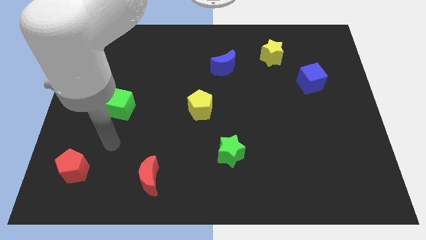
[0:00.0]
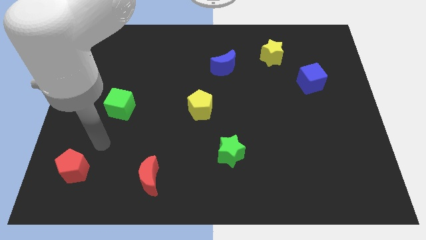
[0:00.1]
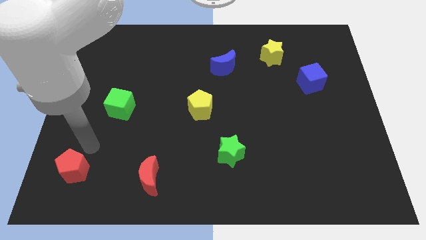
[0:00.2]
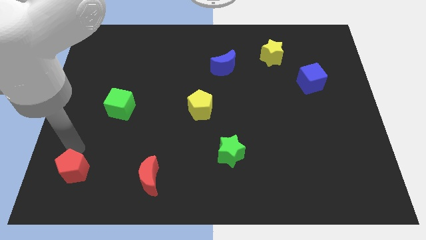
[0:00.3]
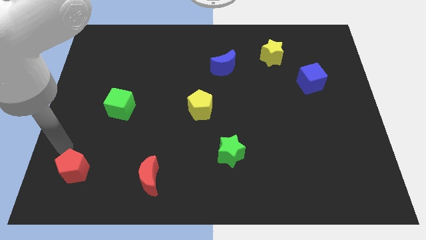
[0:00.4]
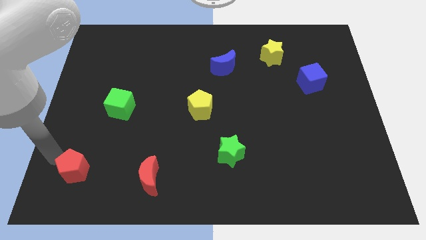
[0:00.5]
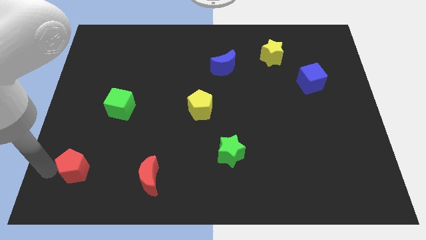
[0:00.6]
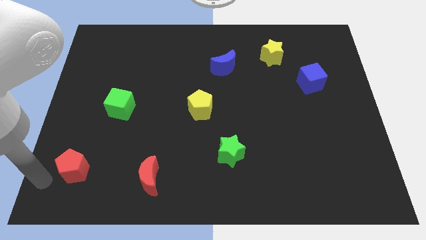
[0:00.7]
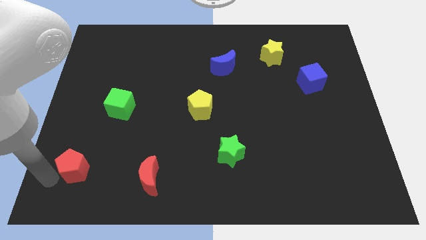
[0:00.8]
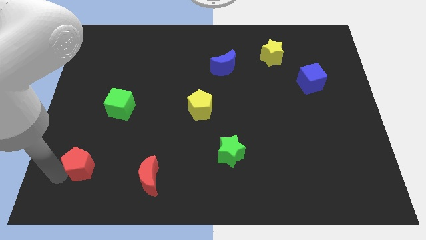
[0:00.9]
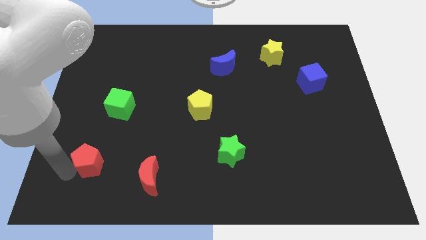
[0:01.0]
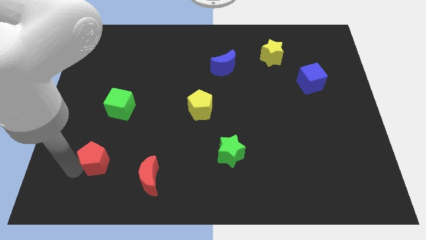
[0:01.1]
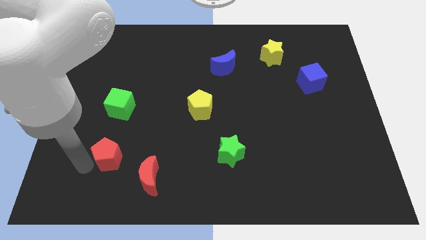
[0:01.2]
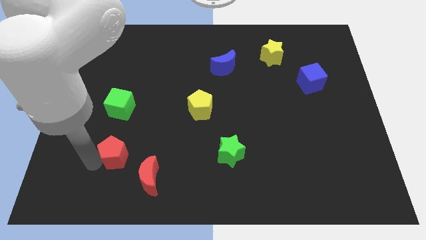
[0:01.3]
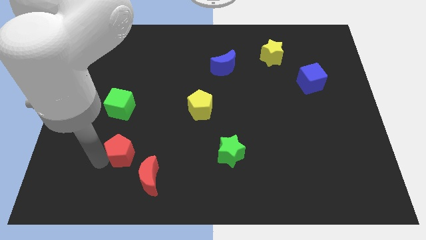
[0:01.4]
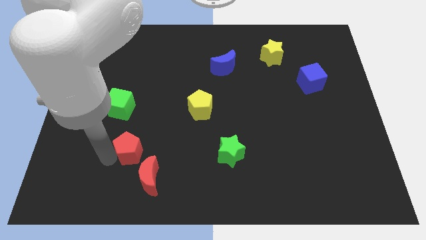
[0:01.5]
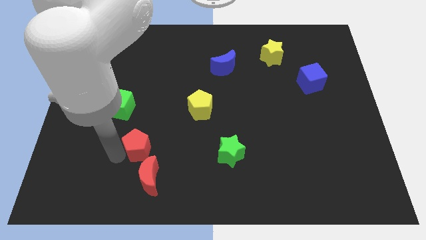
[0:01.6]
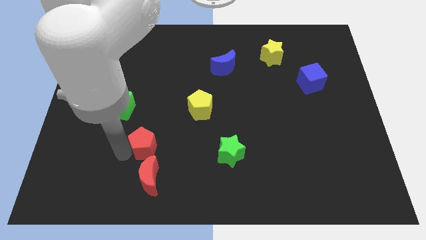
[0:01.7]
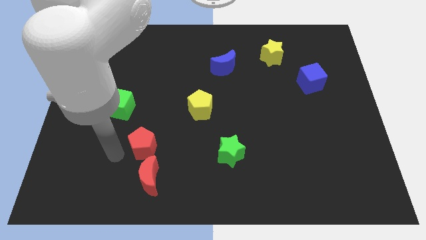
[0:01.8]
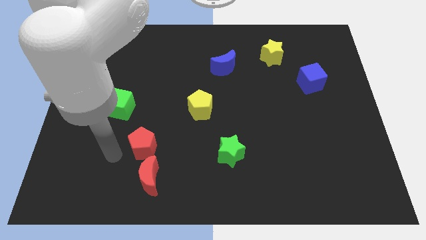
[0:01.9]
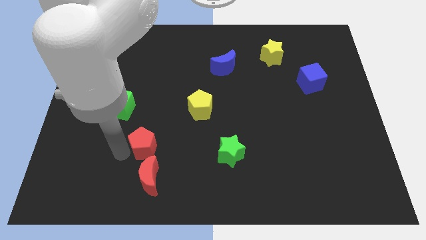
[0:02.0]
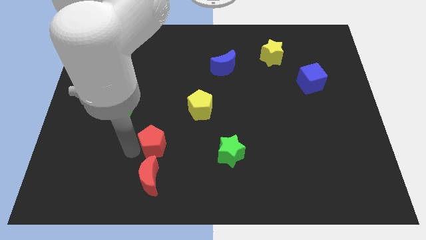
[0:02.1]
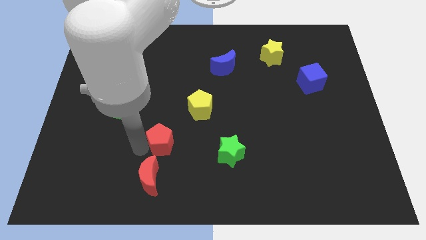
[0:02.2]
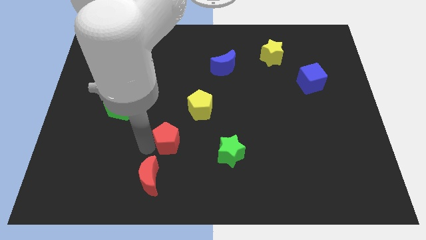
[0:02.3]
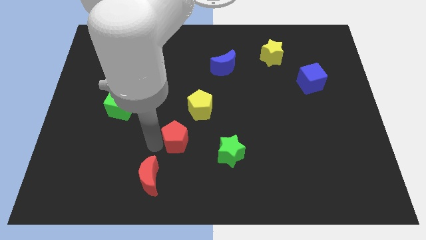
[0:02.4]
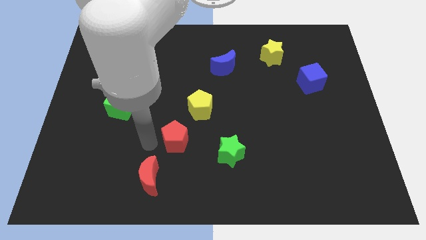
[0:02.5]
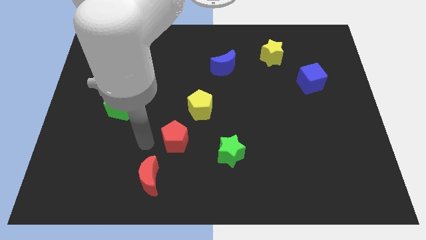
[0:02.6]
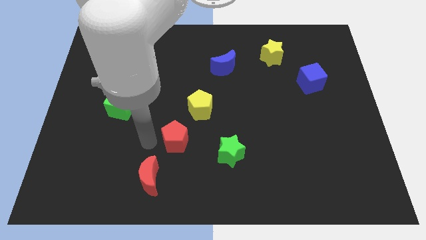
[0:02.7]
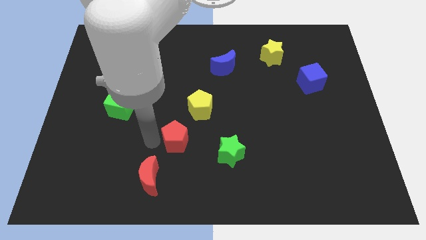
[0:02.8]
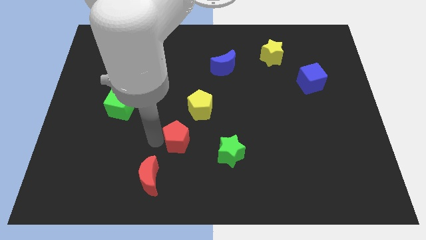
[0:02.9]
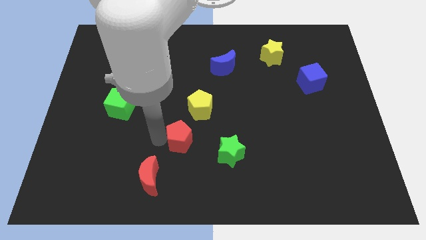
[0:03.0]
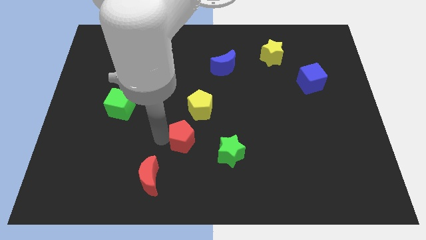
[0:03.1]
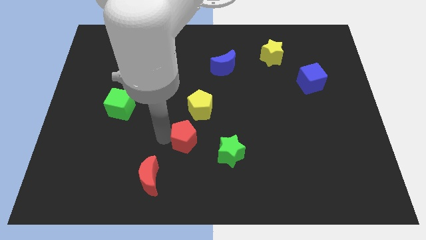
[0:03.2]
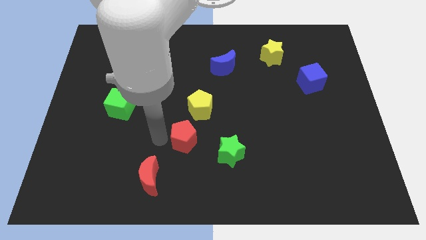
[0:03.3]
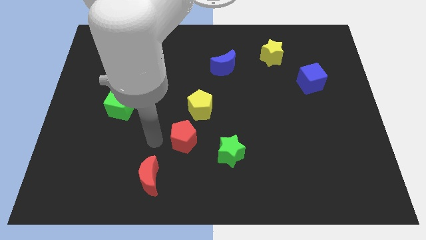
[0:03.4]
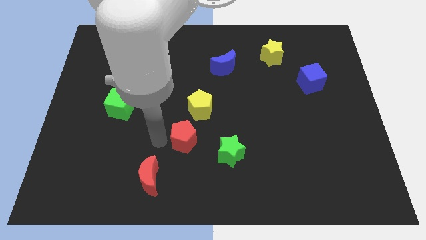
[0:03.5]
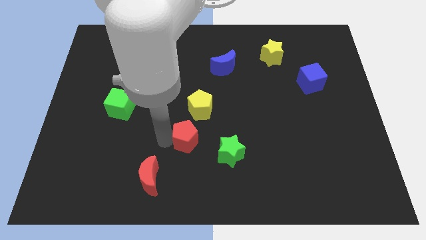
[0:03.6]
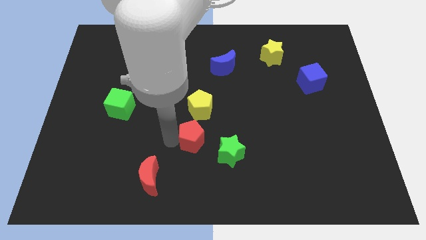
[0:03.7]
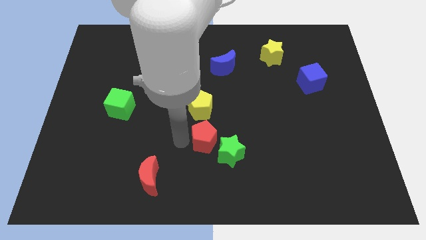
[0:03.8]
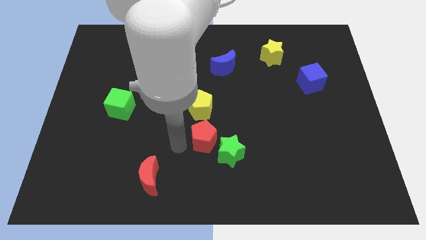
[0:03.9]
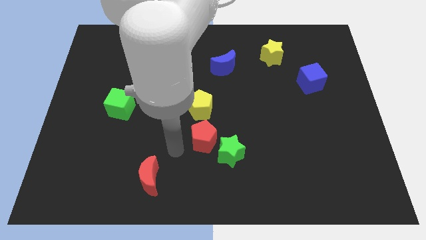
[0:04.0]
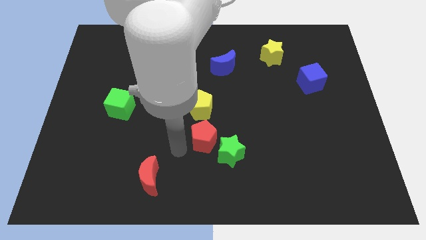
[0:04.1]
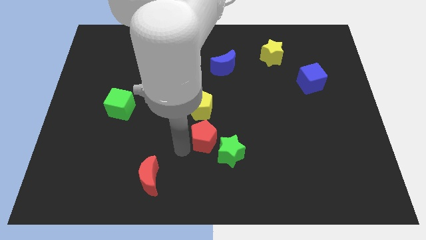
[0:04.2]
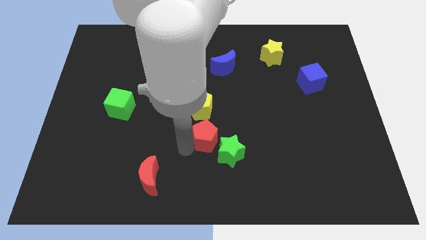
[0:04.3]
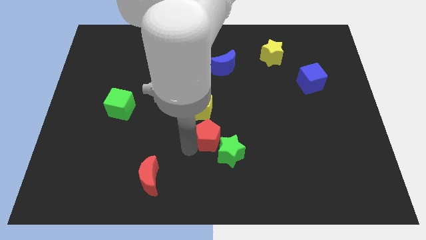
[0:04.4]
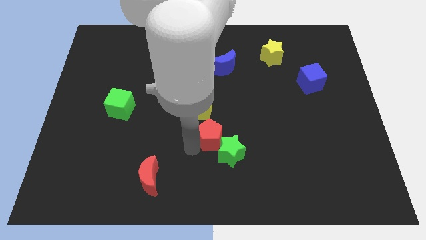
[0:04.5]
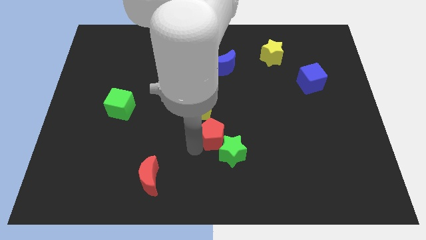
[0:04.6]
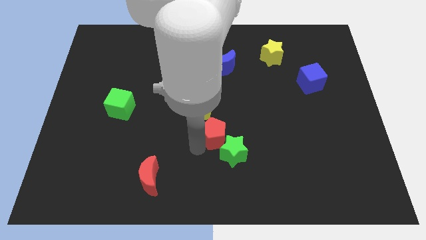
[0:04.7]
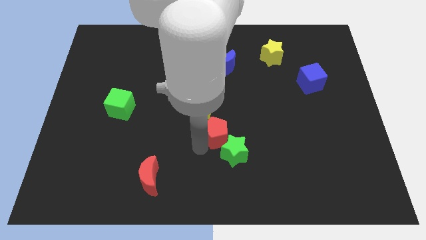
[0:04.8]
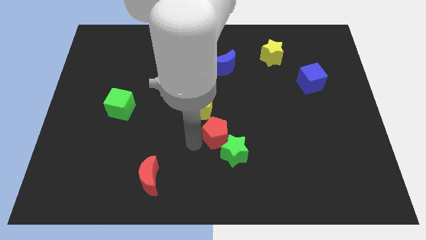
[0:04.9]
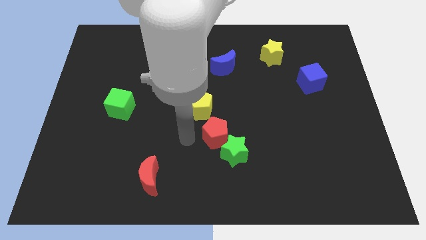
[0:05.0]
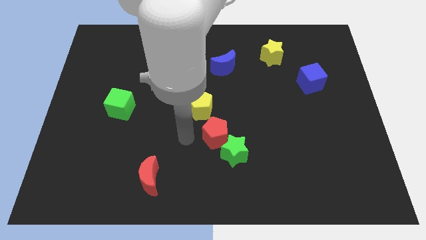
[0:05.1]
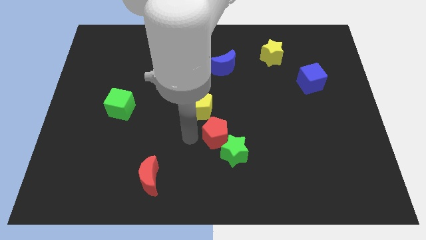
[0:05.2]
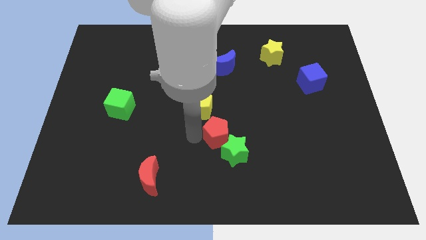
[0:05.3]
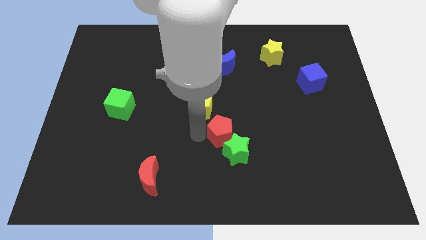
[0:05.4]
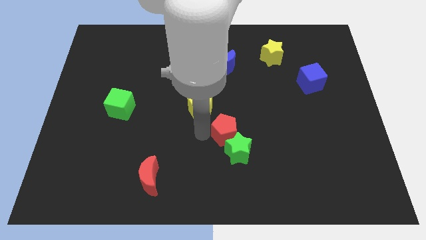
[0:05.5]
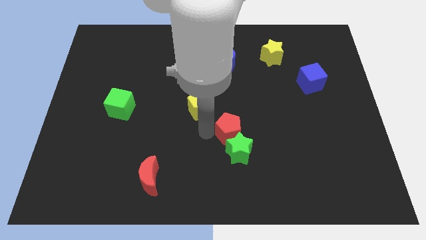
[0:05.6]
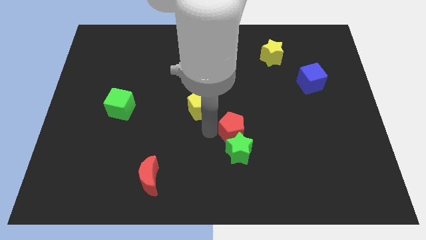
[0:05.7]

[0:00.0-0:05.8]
move the red pentagon to the top right side of the green star

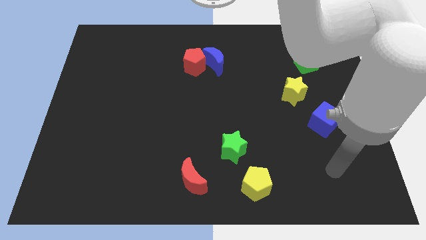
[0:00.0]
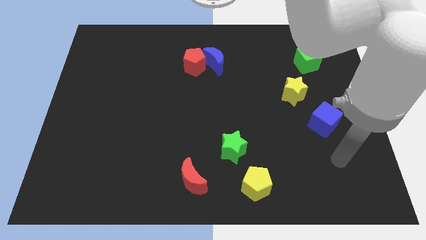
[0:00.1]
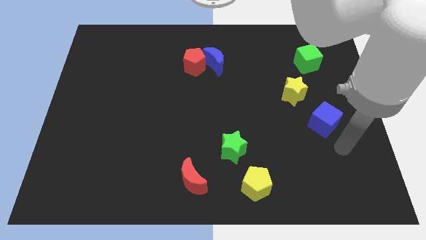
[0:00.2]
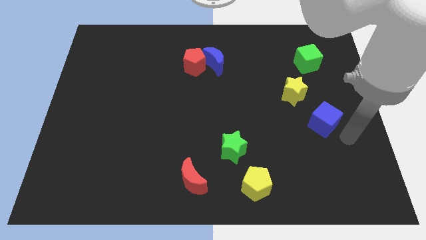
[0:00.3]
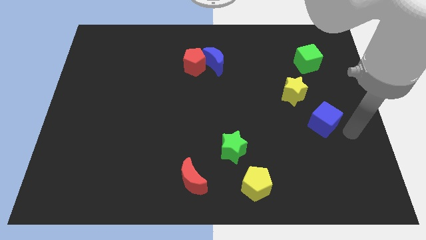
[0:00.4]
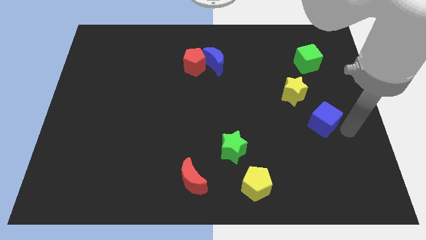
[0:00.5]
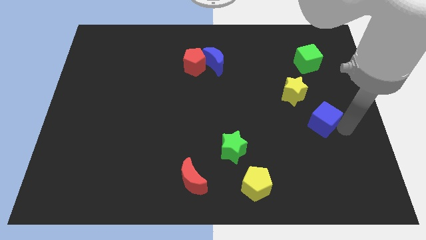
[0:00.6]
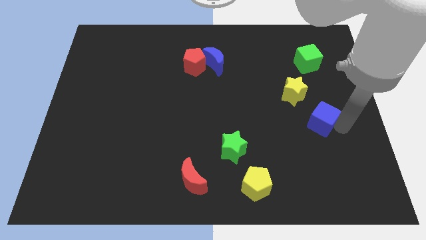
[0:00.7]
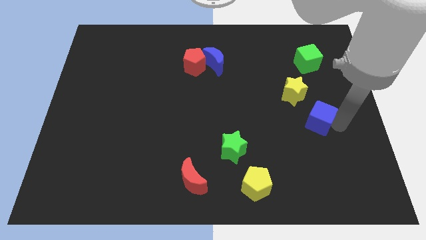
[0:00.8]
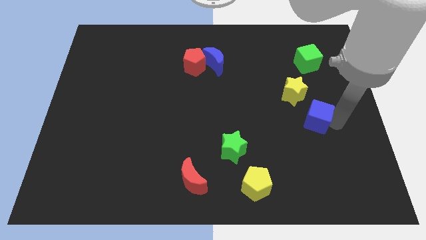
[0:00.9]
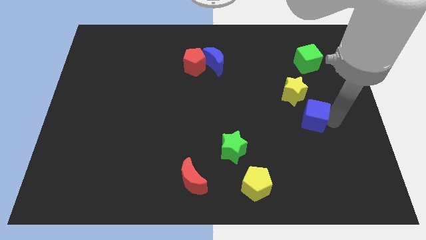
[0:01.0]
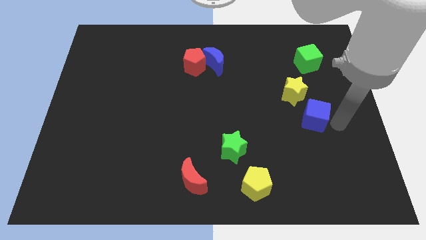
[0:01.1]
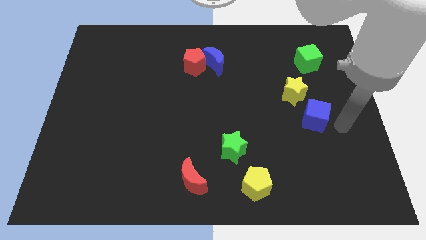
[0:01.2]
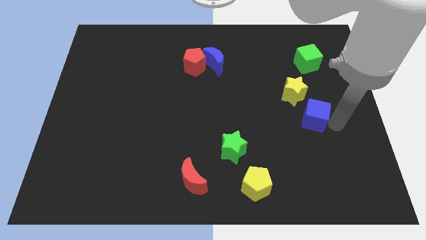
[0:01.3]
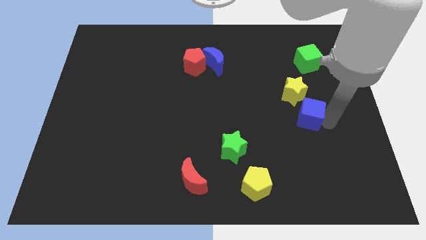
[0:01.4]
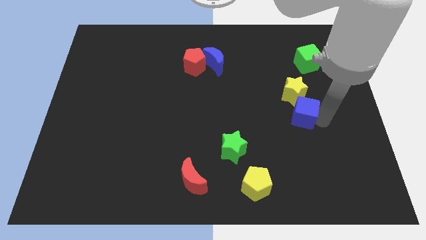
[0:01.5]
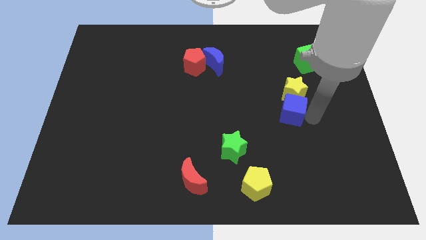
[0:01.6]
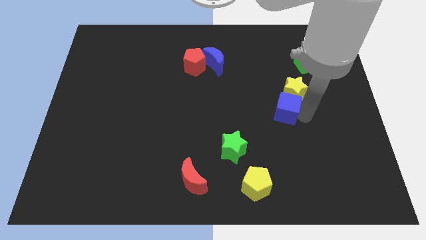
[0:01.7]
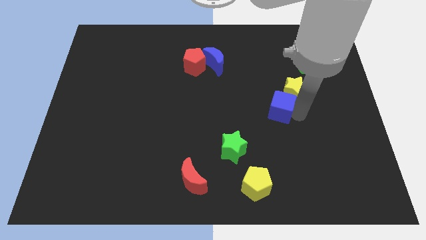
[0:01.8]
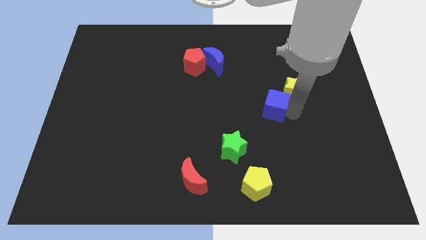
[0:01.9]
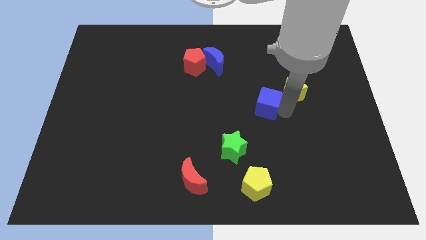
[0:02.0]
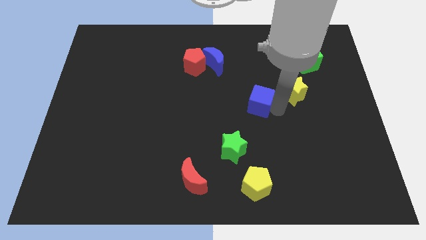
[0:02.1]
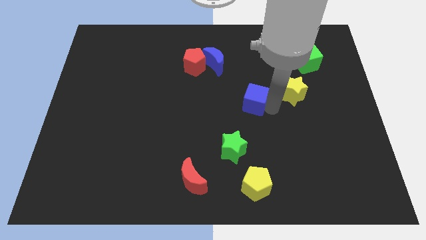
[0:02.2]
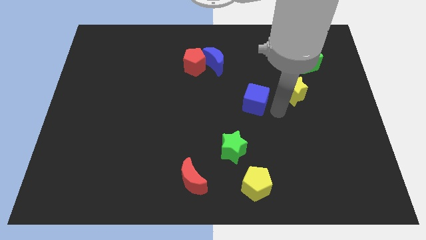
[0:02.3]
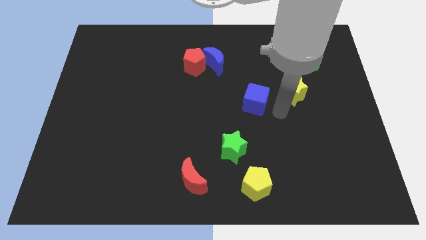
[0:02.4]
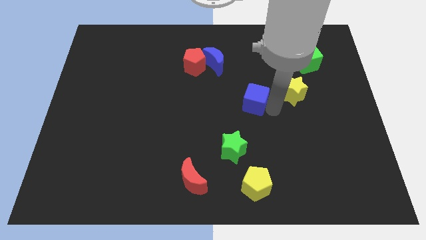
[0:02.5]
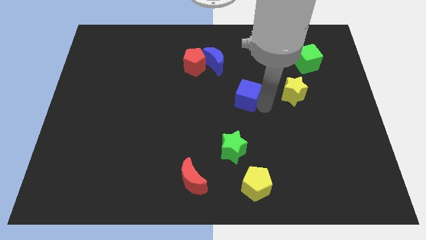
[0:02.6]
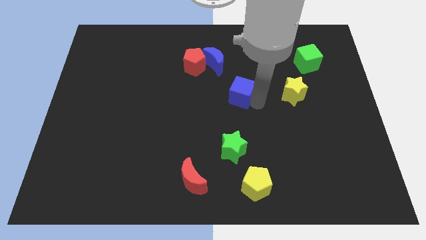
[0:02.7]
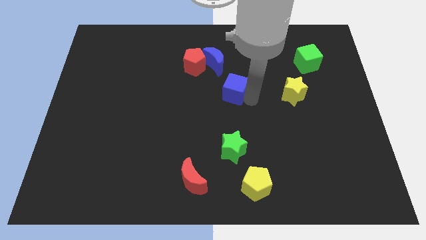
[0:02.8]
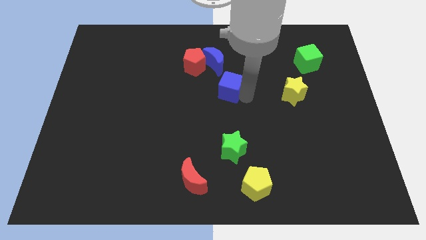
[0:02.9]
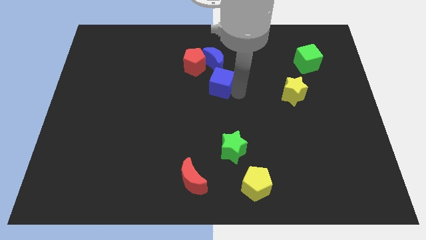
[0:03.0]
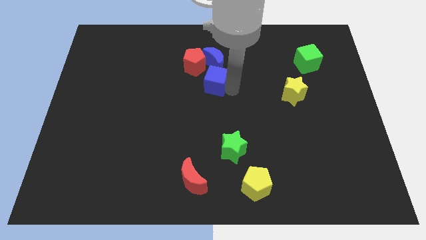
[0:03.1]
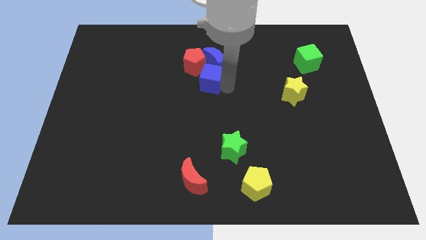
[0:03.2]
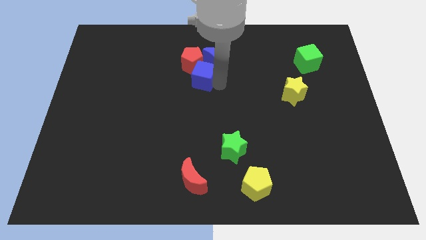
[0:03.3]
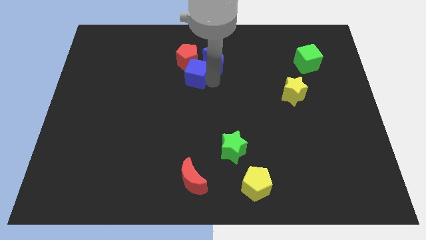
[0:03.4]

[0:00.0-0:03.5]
move the blue cube just left of the blue moon
